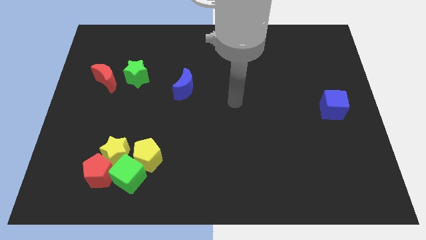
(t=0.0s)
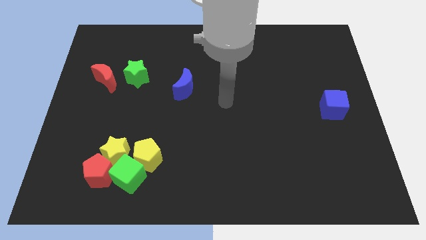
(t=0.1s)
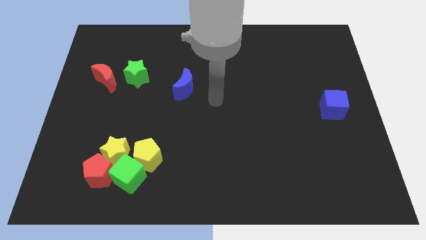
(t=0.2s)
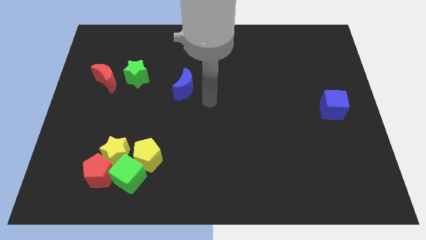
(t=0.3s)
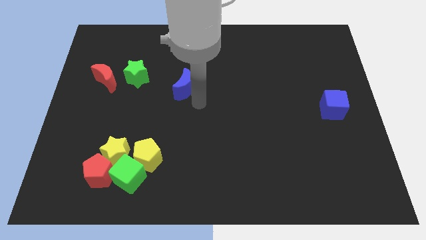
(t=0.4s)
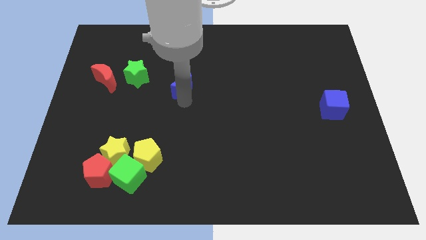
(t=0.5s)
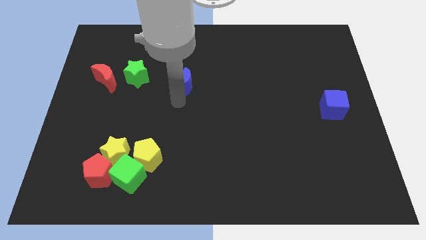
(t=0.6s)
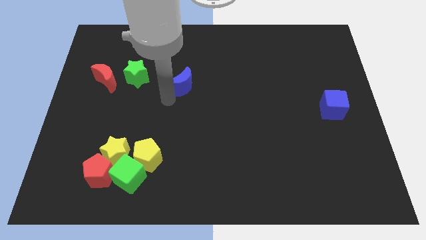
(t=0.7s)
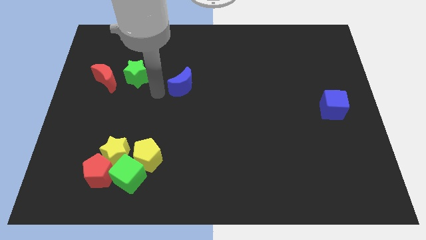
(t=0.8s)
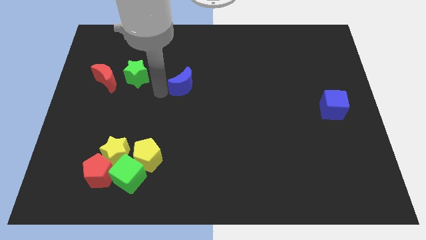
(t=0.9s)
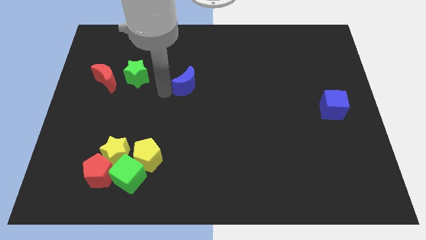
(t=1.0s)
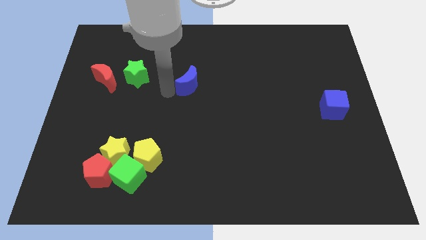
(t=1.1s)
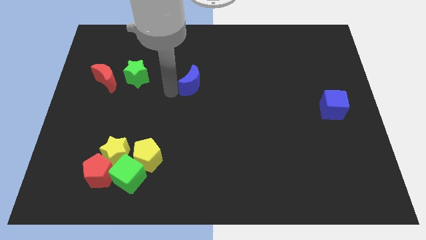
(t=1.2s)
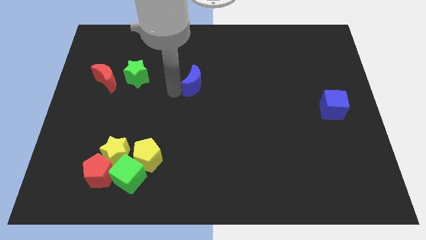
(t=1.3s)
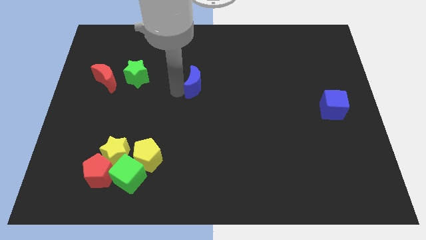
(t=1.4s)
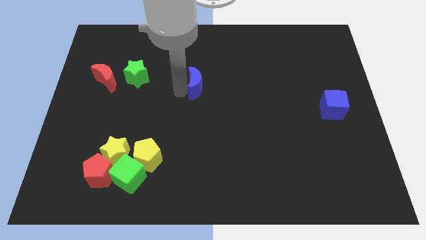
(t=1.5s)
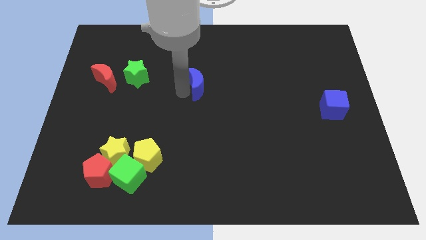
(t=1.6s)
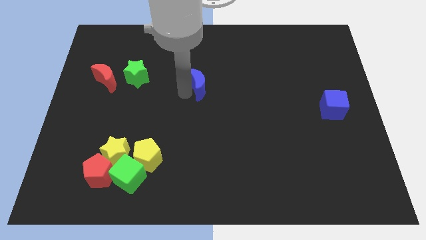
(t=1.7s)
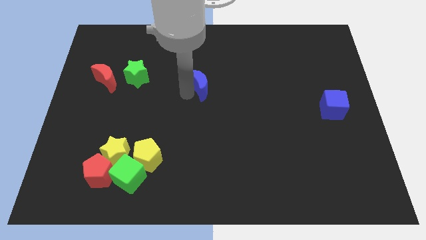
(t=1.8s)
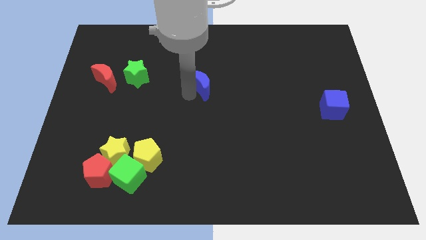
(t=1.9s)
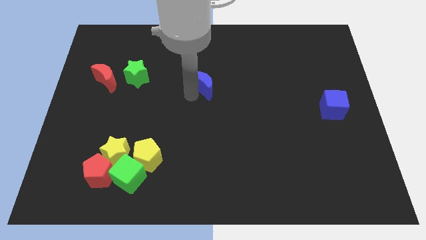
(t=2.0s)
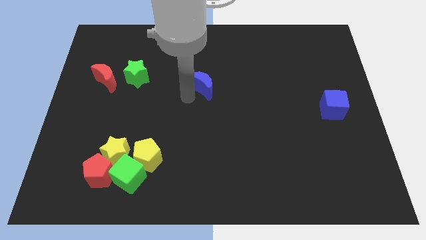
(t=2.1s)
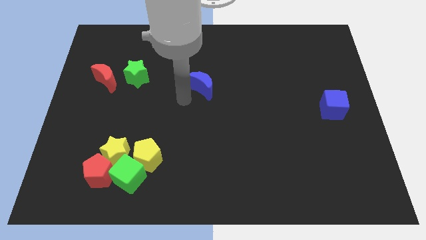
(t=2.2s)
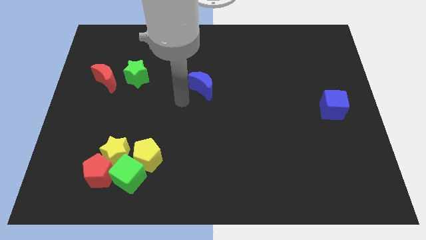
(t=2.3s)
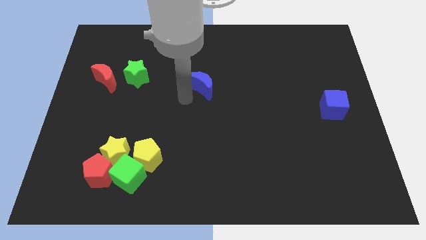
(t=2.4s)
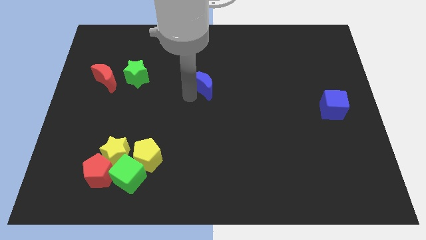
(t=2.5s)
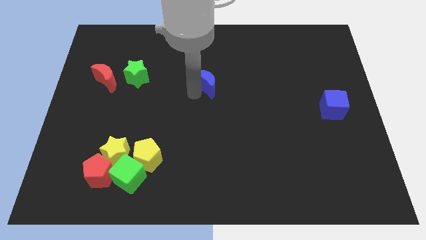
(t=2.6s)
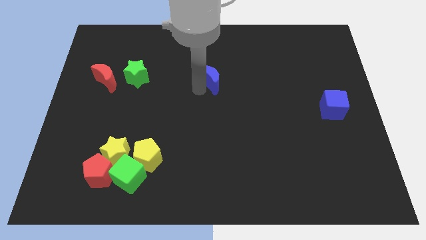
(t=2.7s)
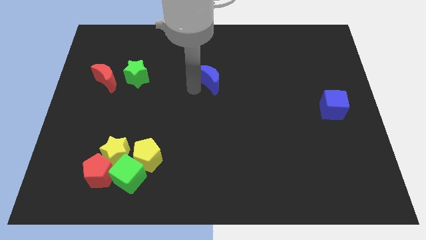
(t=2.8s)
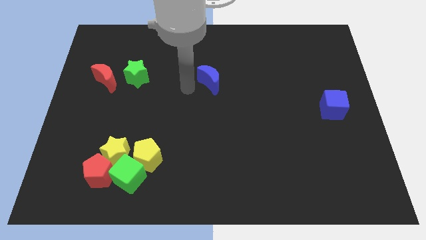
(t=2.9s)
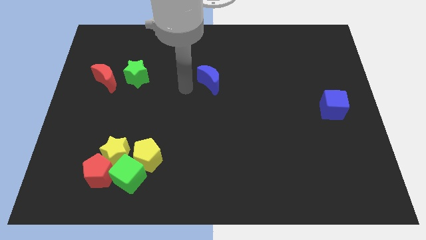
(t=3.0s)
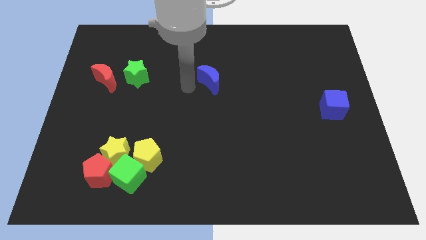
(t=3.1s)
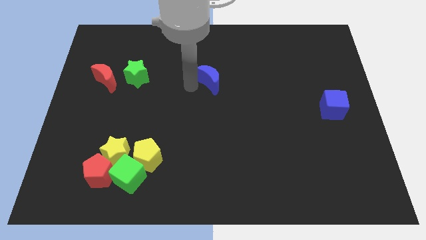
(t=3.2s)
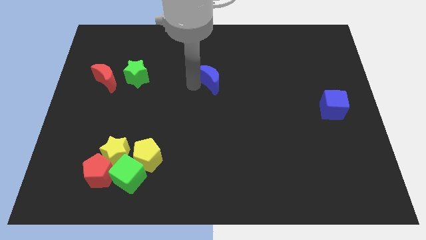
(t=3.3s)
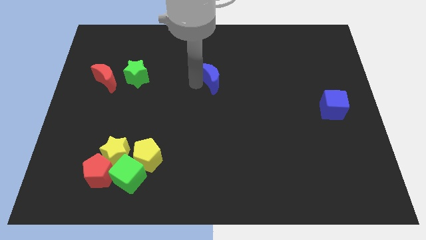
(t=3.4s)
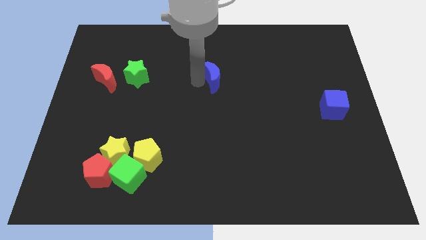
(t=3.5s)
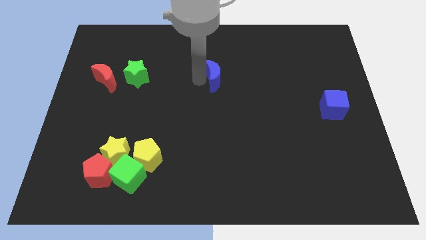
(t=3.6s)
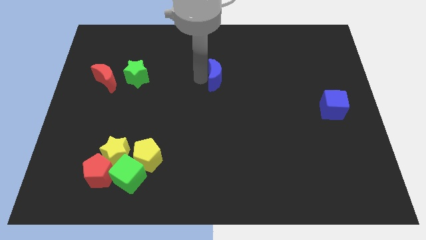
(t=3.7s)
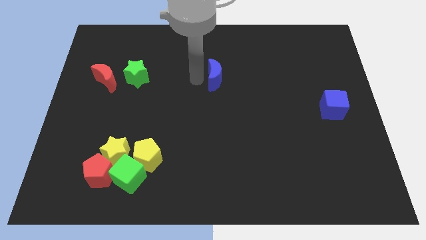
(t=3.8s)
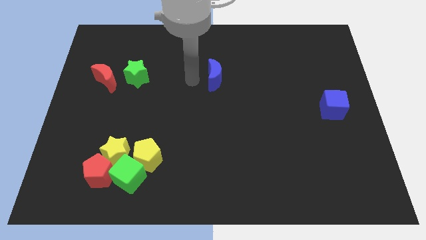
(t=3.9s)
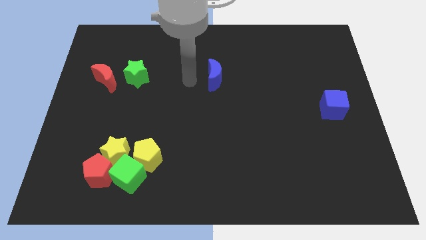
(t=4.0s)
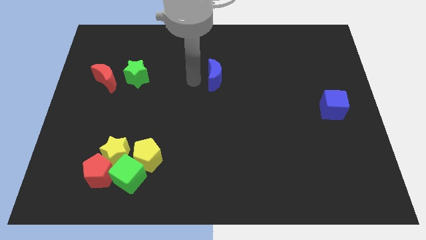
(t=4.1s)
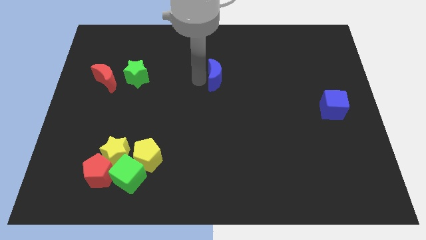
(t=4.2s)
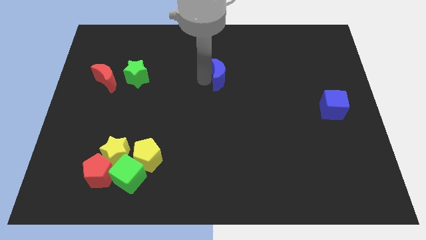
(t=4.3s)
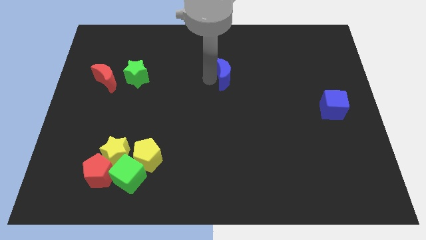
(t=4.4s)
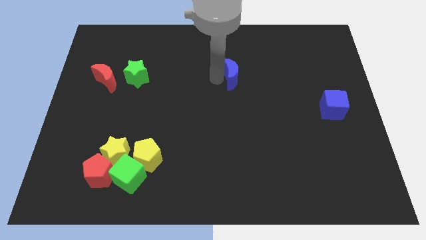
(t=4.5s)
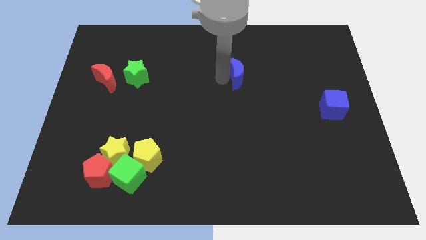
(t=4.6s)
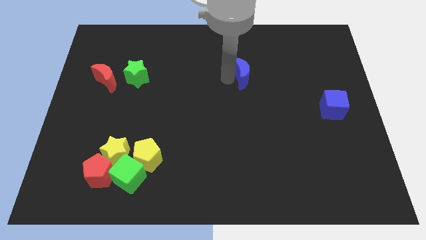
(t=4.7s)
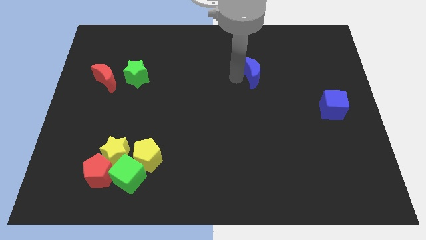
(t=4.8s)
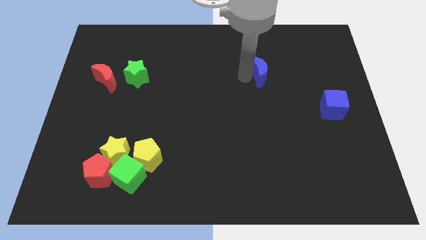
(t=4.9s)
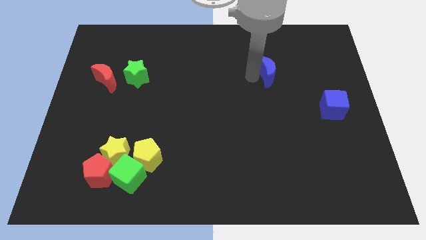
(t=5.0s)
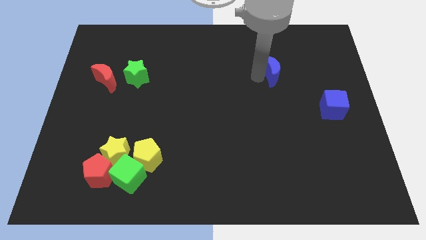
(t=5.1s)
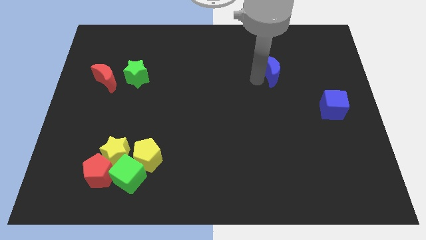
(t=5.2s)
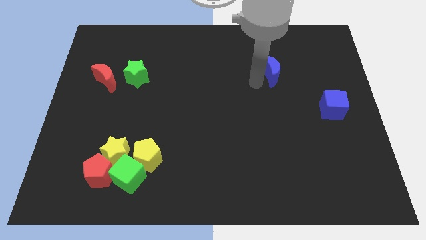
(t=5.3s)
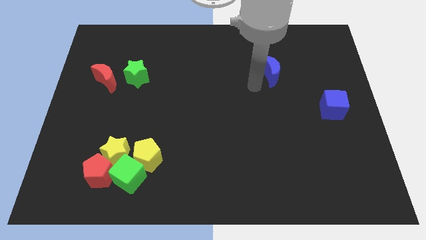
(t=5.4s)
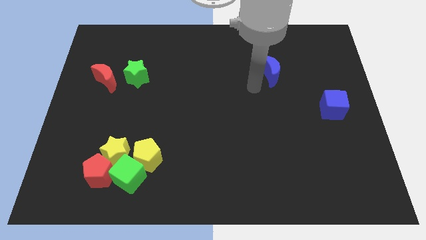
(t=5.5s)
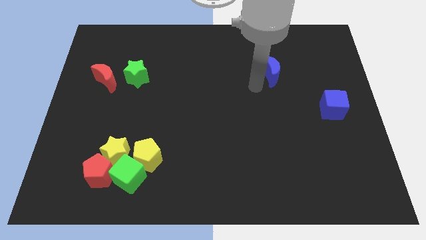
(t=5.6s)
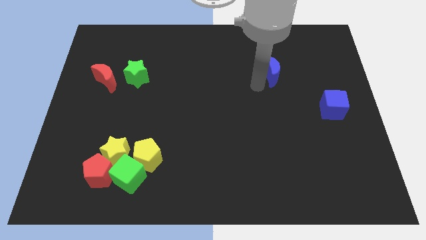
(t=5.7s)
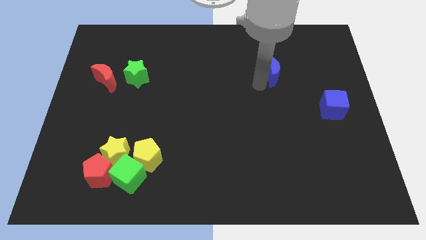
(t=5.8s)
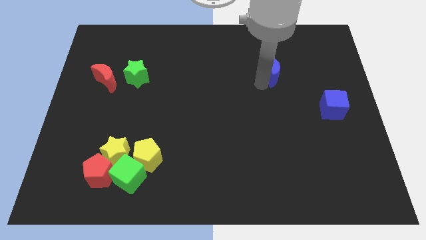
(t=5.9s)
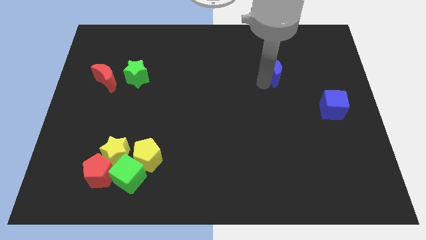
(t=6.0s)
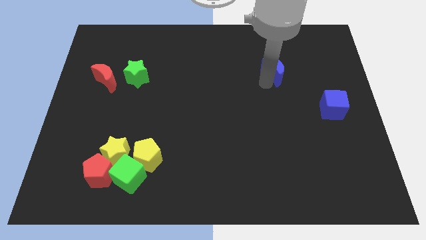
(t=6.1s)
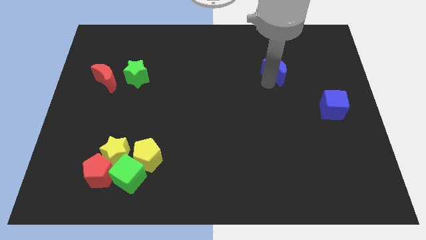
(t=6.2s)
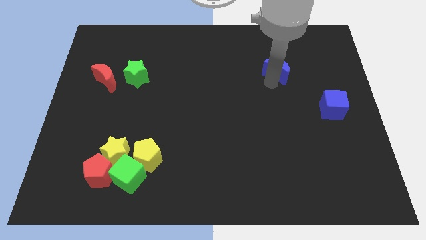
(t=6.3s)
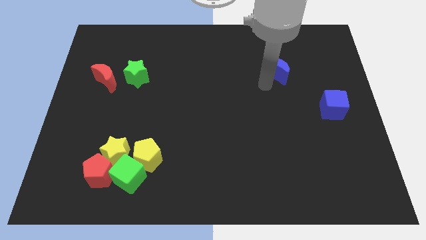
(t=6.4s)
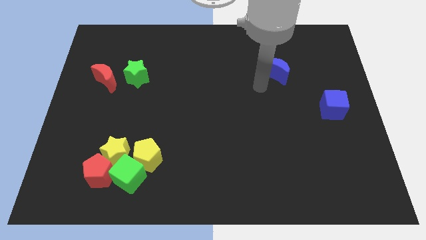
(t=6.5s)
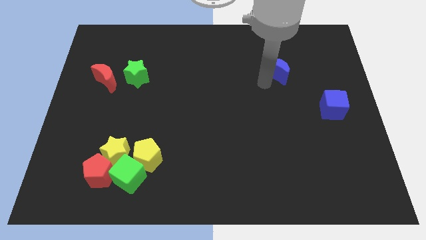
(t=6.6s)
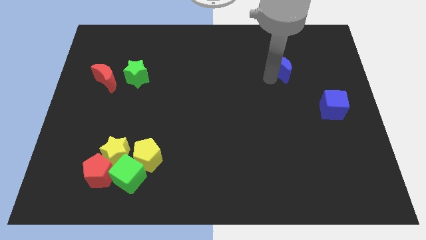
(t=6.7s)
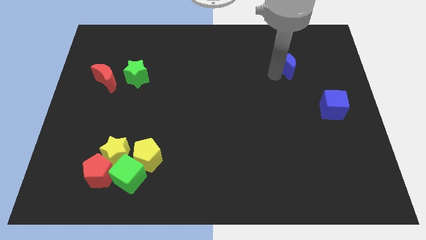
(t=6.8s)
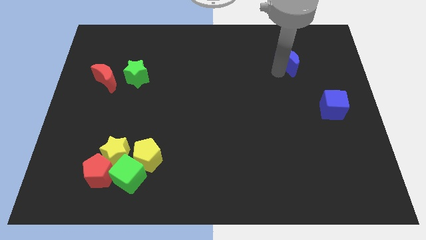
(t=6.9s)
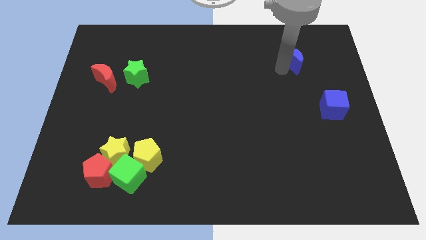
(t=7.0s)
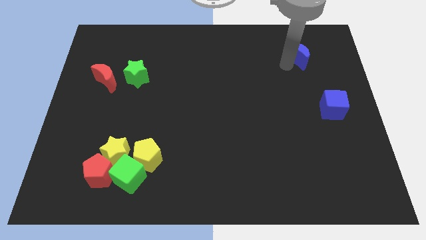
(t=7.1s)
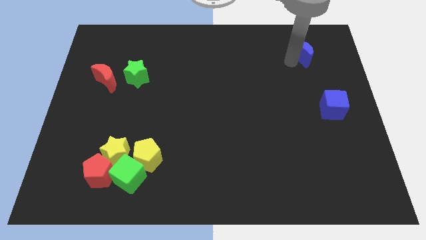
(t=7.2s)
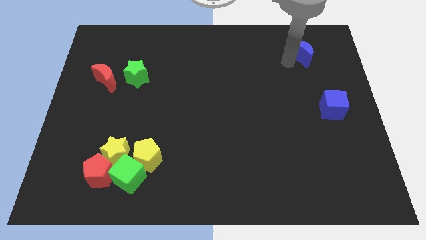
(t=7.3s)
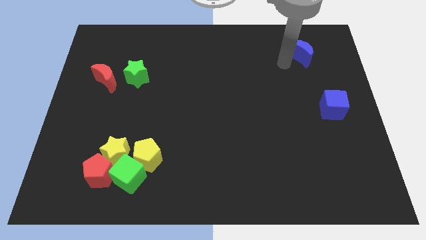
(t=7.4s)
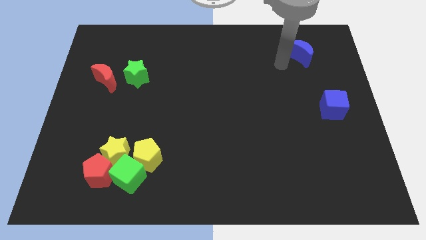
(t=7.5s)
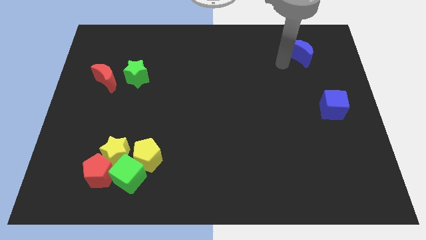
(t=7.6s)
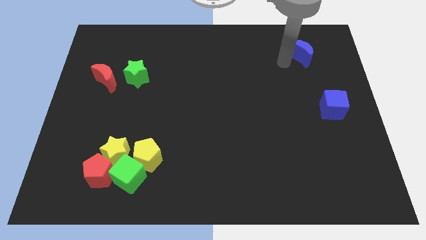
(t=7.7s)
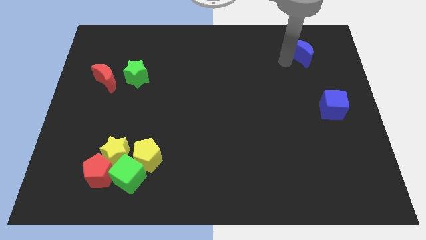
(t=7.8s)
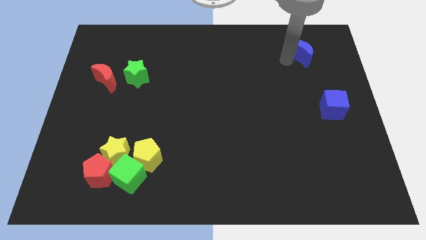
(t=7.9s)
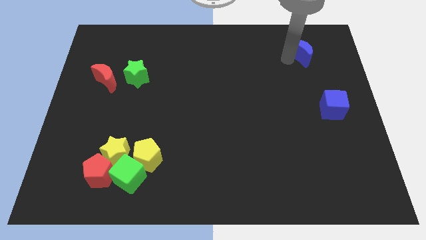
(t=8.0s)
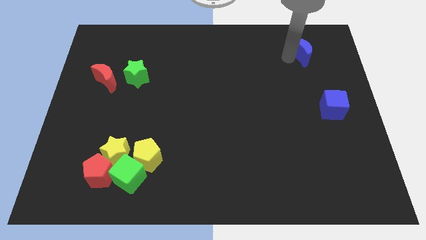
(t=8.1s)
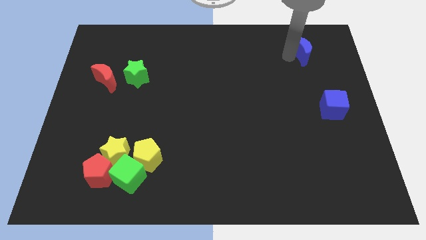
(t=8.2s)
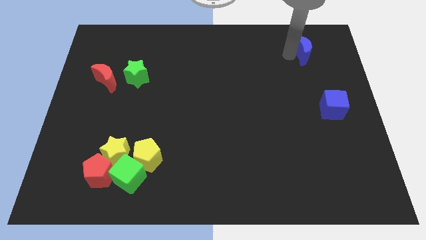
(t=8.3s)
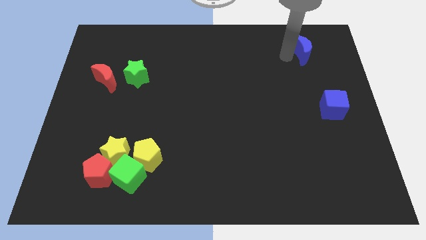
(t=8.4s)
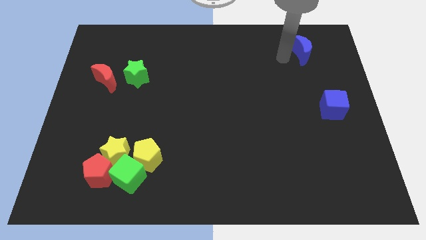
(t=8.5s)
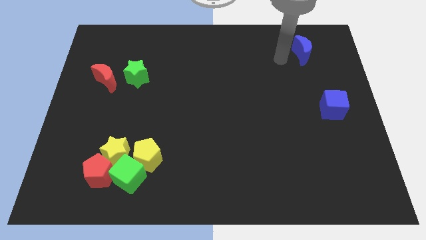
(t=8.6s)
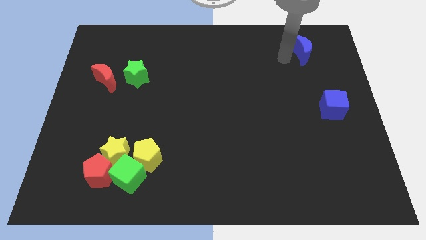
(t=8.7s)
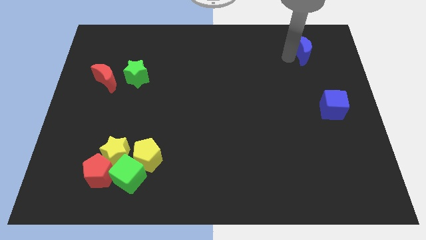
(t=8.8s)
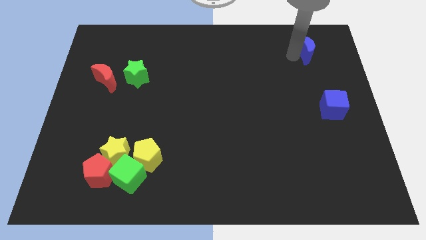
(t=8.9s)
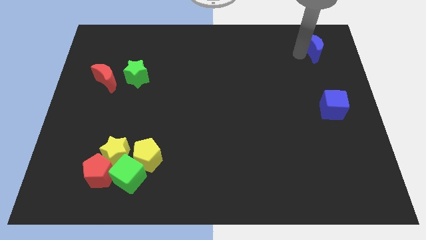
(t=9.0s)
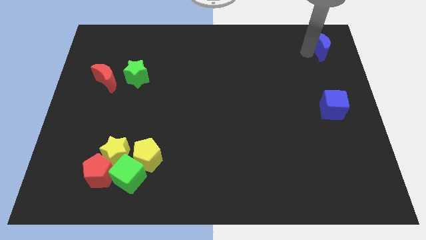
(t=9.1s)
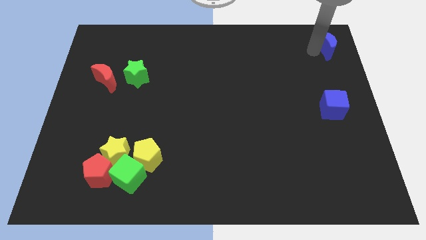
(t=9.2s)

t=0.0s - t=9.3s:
move the blue moon to the top right
